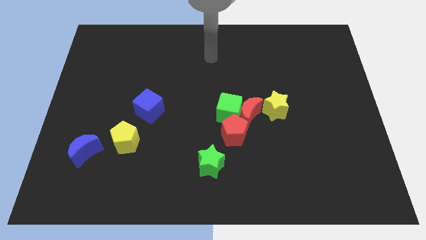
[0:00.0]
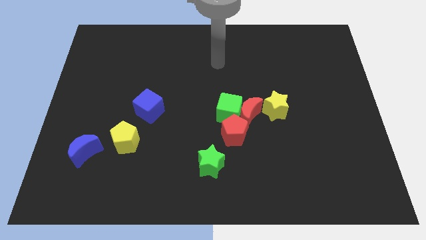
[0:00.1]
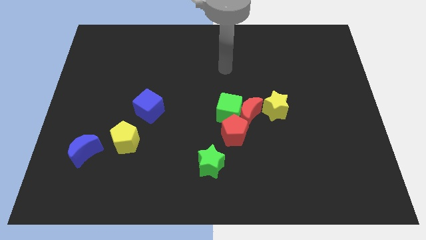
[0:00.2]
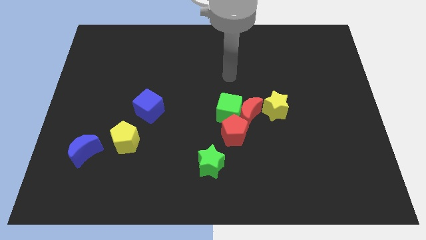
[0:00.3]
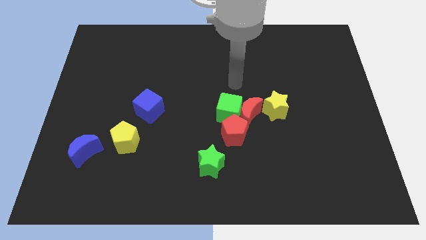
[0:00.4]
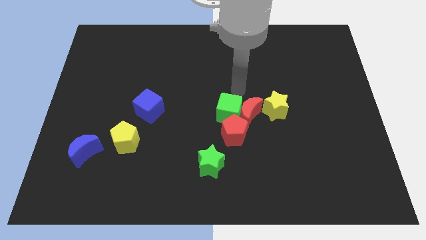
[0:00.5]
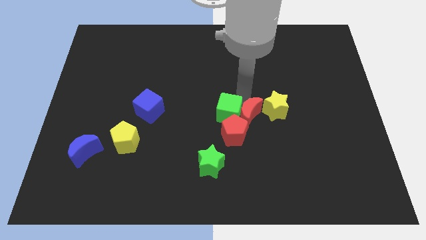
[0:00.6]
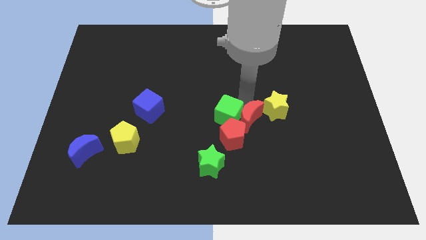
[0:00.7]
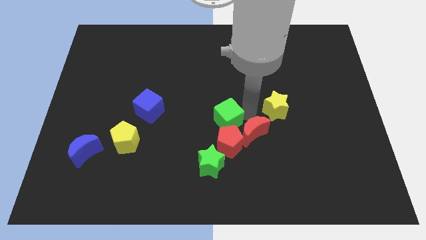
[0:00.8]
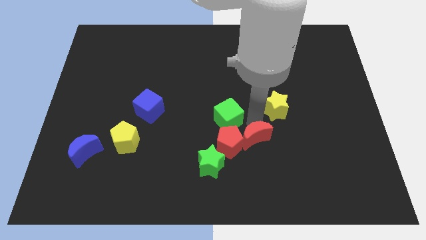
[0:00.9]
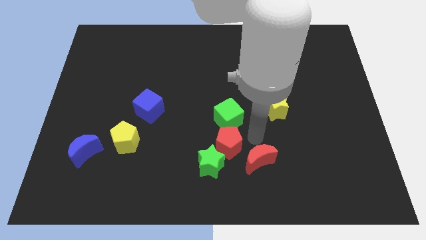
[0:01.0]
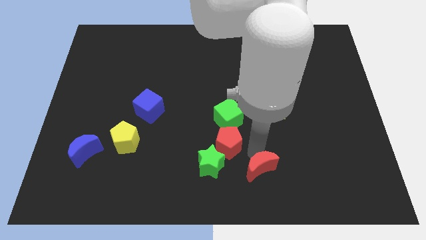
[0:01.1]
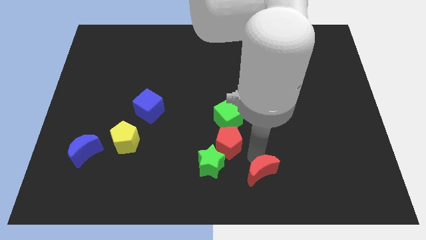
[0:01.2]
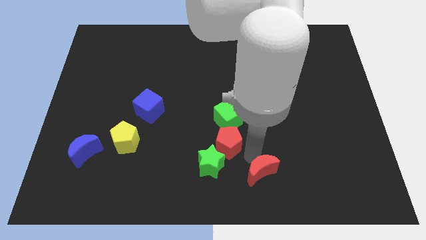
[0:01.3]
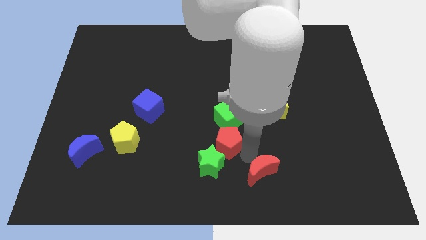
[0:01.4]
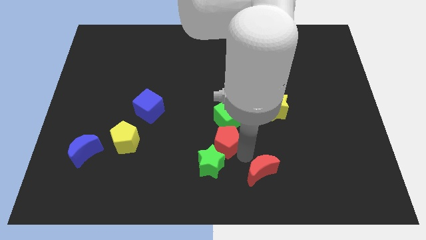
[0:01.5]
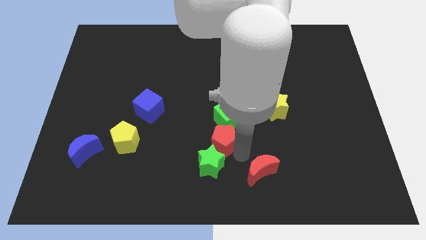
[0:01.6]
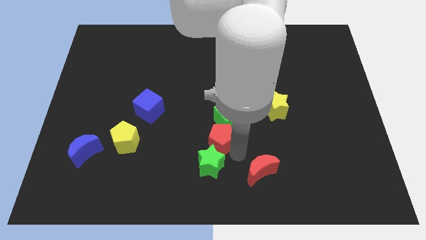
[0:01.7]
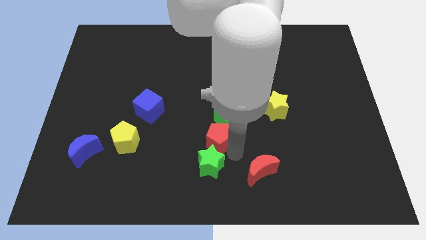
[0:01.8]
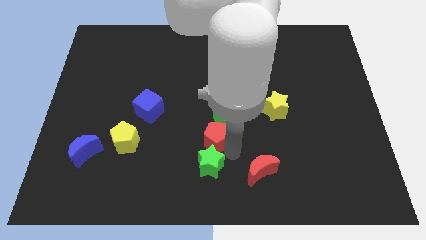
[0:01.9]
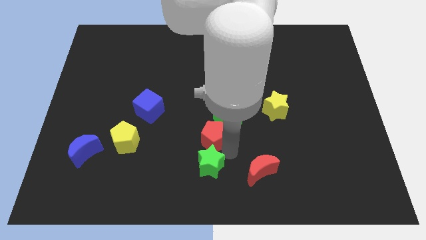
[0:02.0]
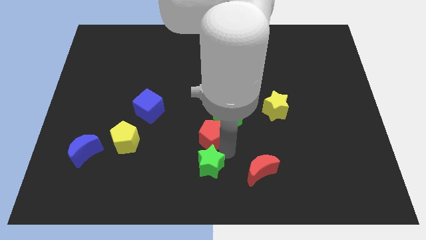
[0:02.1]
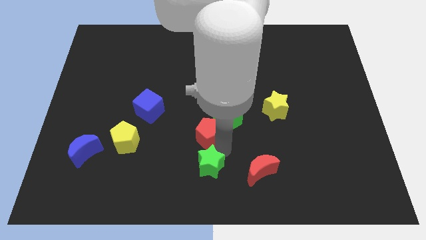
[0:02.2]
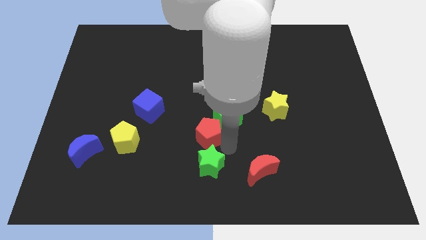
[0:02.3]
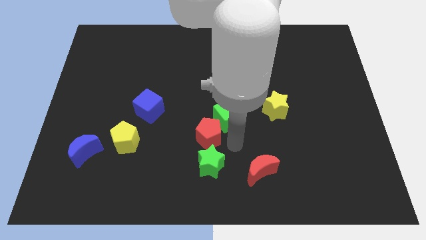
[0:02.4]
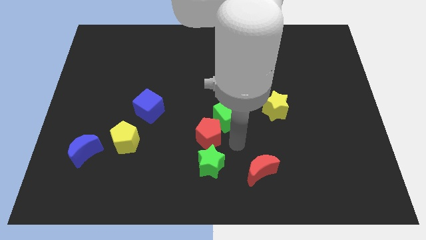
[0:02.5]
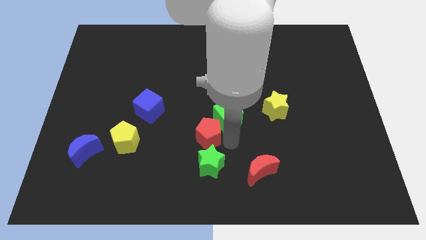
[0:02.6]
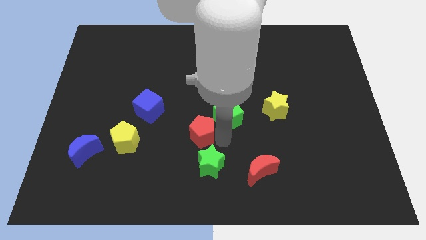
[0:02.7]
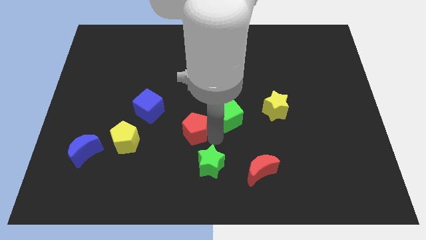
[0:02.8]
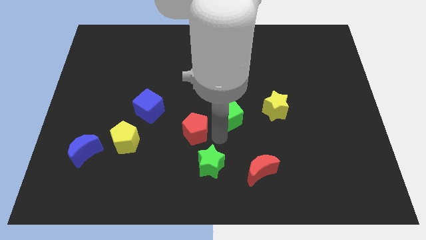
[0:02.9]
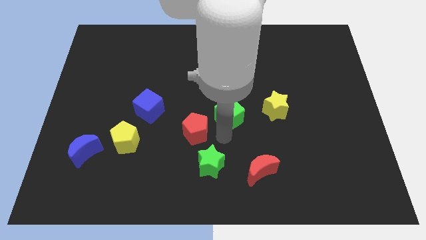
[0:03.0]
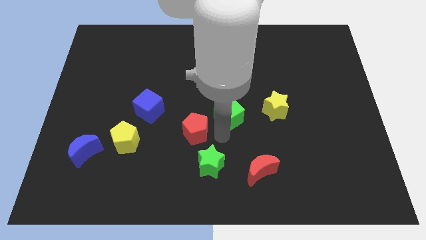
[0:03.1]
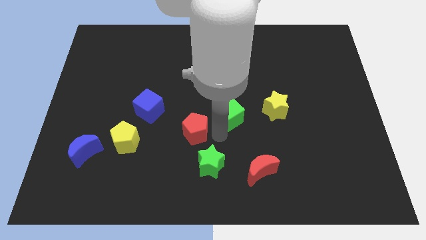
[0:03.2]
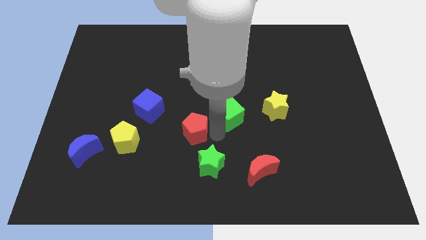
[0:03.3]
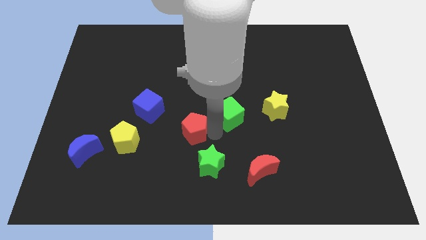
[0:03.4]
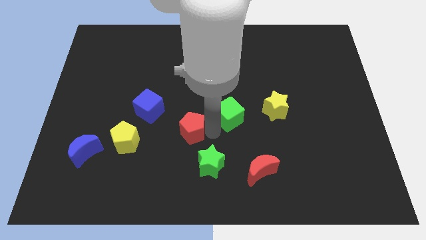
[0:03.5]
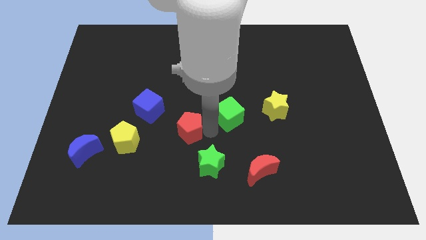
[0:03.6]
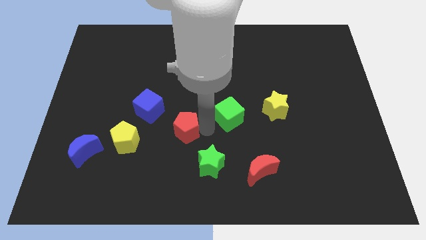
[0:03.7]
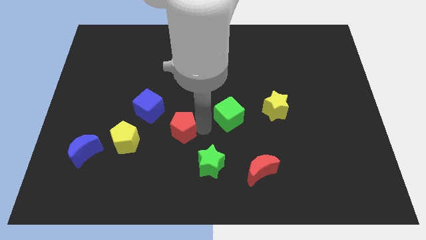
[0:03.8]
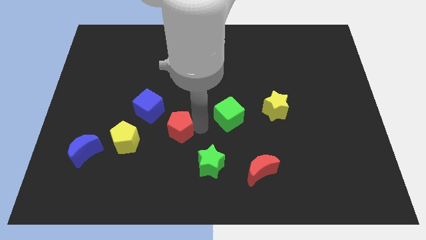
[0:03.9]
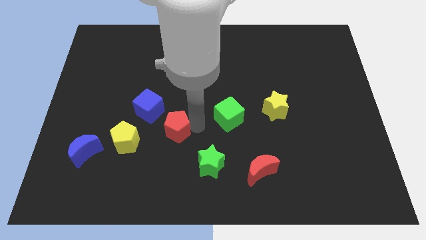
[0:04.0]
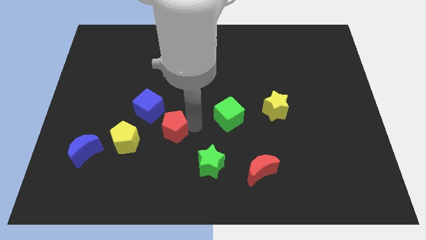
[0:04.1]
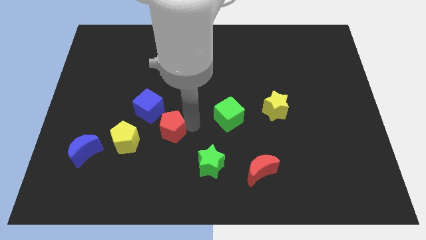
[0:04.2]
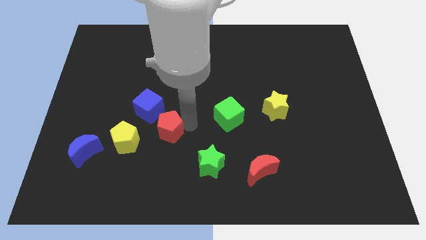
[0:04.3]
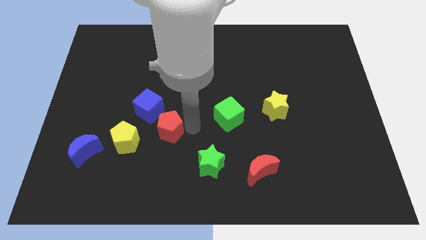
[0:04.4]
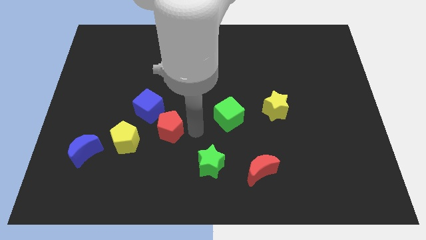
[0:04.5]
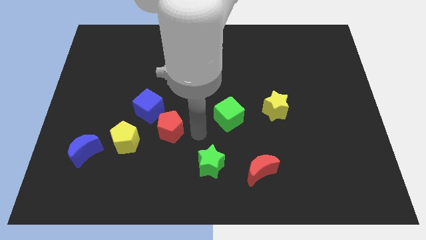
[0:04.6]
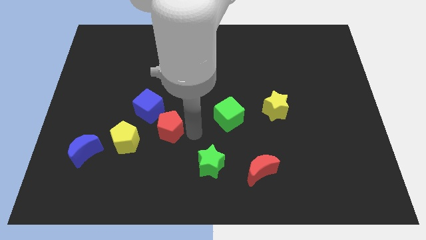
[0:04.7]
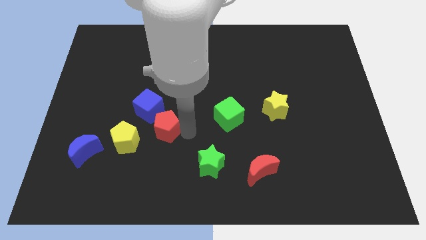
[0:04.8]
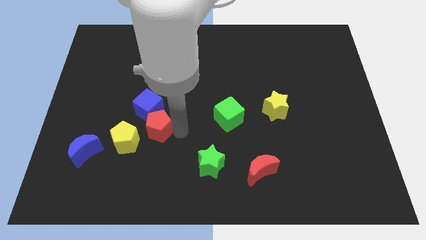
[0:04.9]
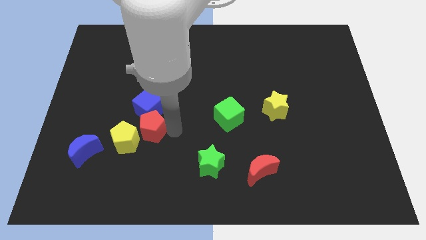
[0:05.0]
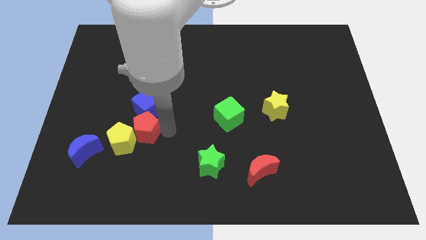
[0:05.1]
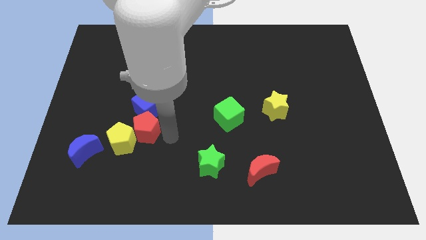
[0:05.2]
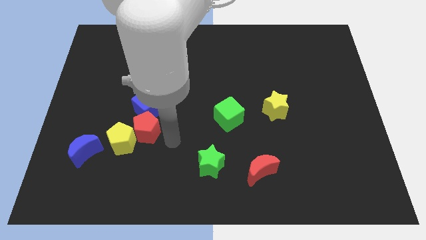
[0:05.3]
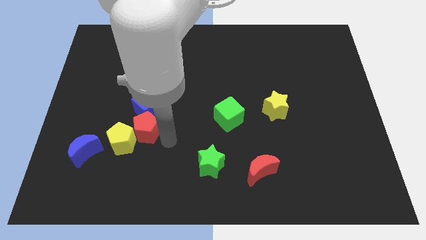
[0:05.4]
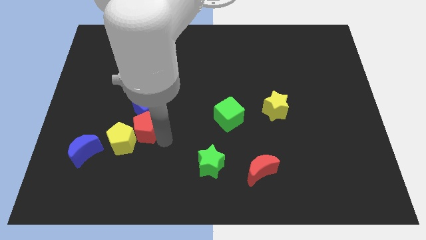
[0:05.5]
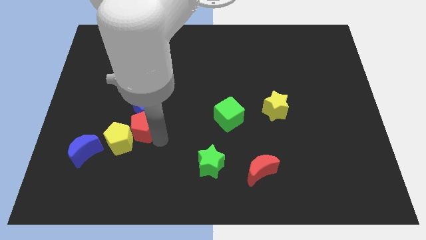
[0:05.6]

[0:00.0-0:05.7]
slide the red pentagon left

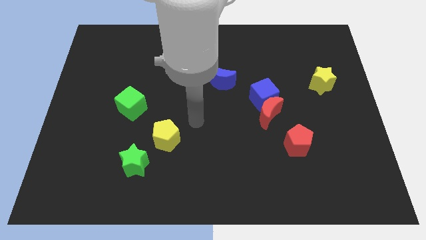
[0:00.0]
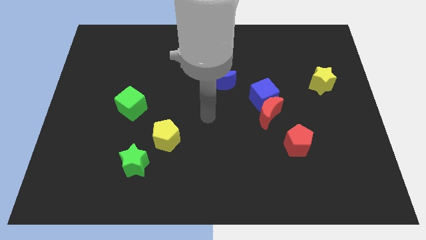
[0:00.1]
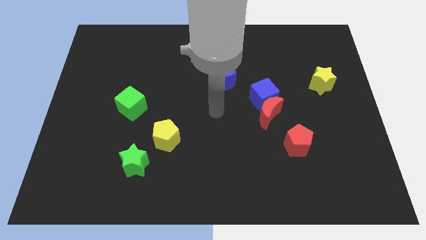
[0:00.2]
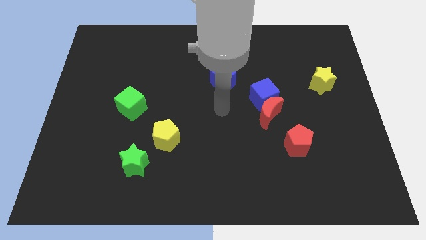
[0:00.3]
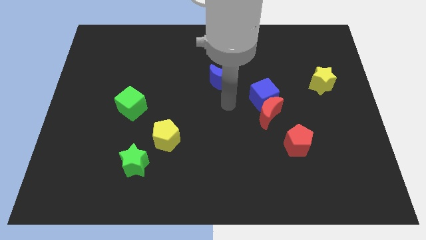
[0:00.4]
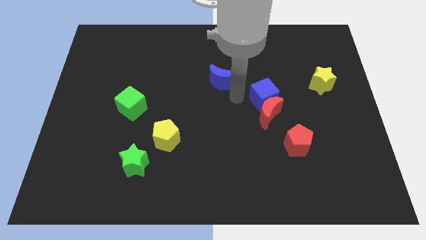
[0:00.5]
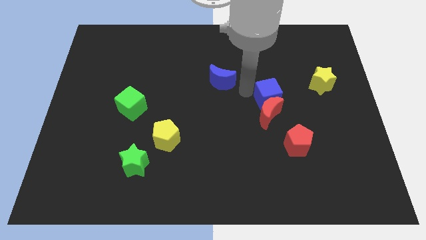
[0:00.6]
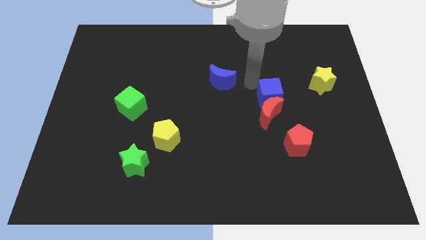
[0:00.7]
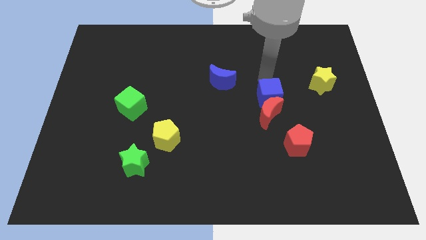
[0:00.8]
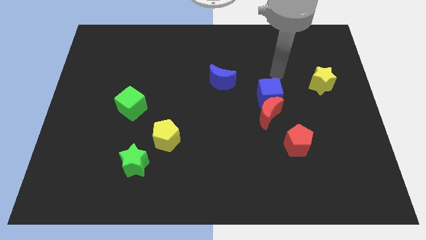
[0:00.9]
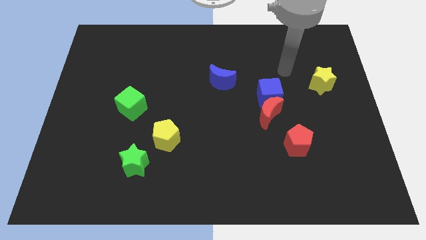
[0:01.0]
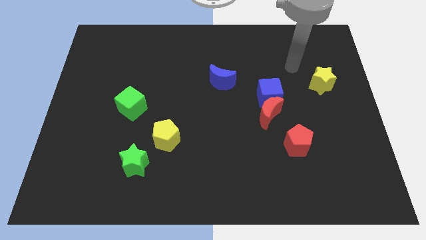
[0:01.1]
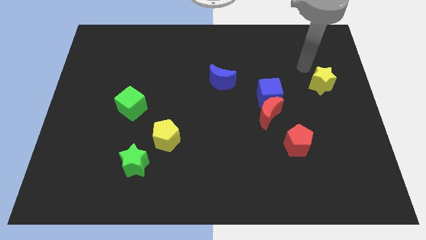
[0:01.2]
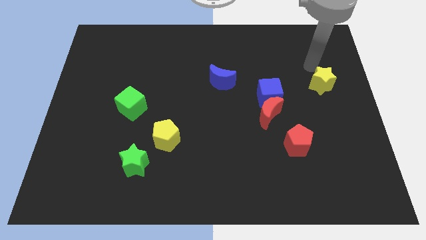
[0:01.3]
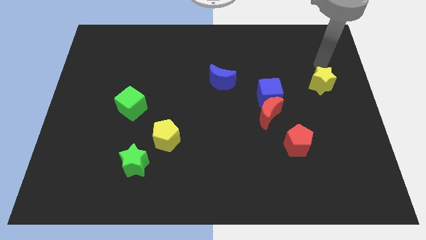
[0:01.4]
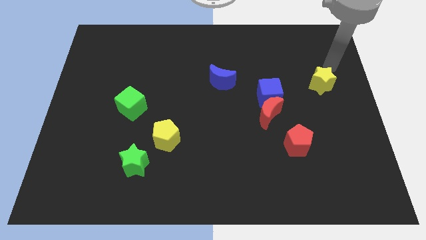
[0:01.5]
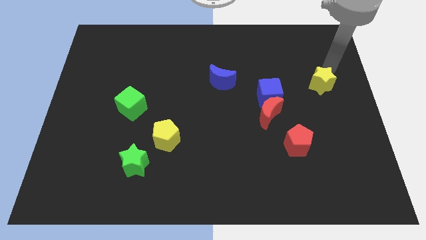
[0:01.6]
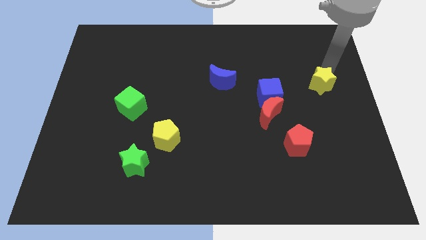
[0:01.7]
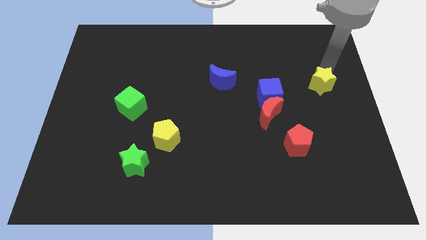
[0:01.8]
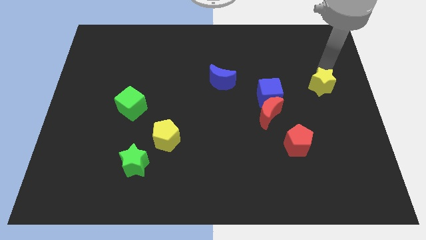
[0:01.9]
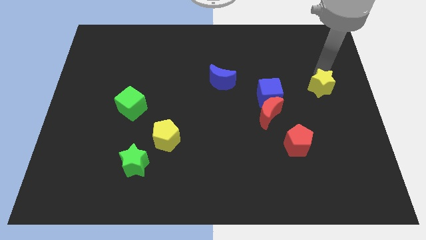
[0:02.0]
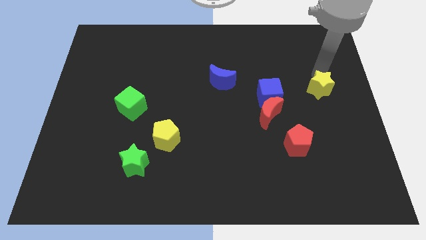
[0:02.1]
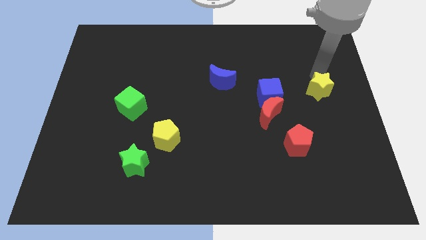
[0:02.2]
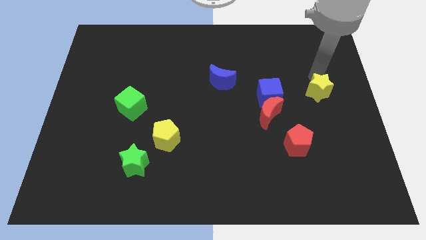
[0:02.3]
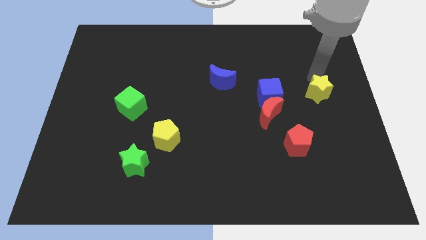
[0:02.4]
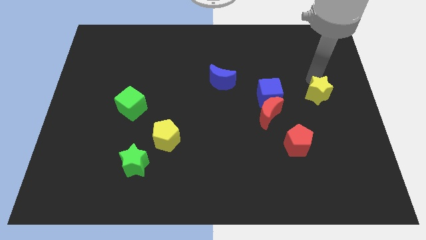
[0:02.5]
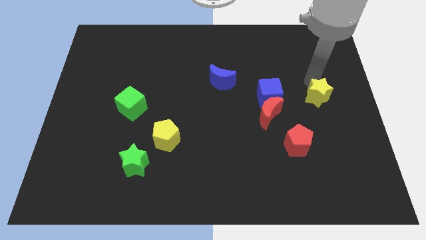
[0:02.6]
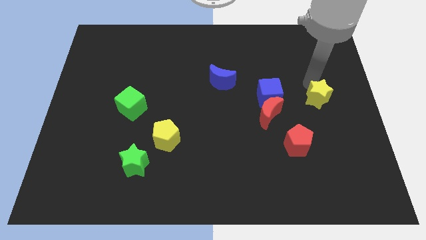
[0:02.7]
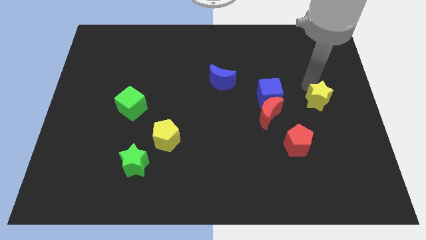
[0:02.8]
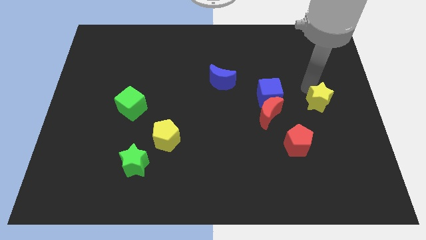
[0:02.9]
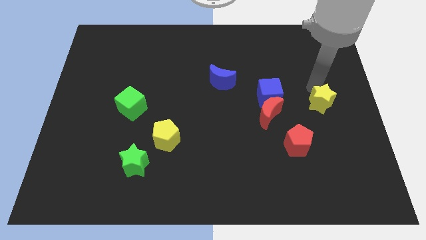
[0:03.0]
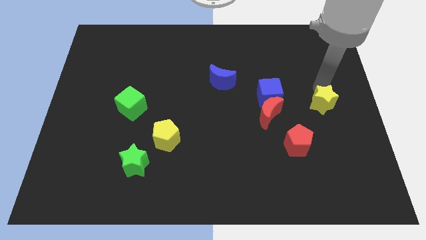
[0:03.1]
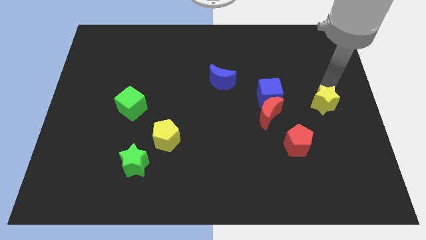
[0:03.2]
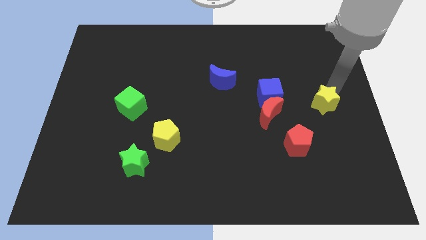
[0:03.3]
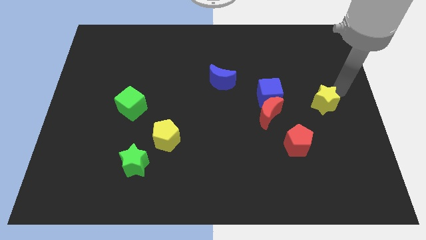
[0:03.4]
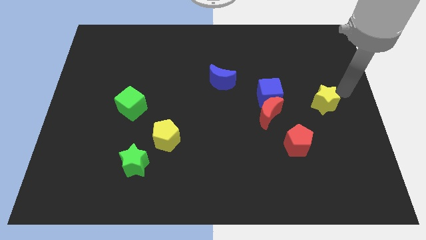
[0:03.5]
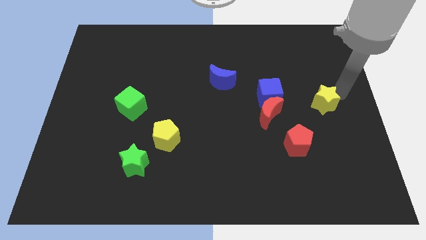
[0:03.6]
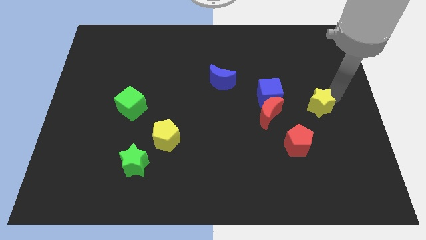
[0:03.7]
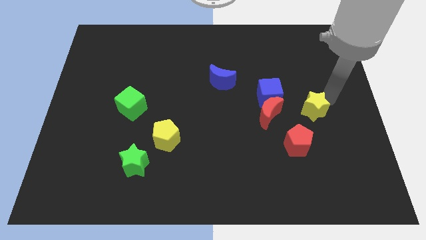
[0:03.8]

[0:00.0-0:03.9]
move the yellow star downwards and to the left a little
